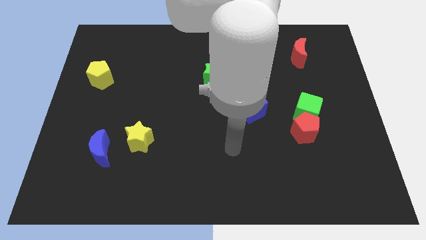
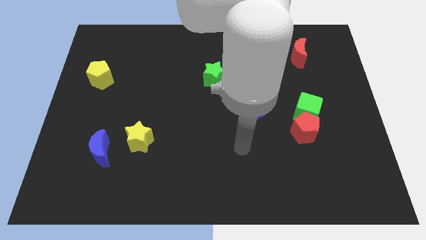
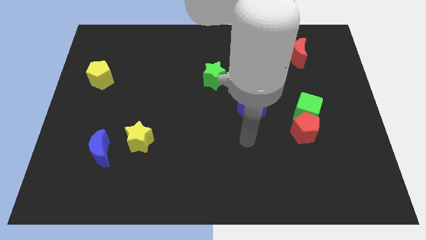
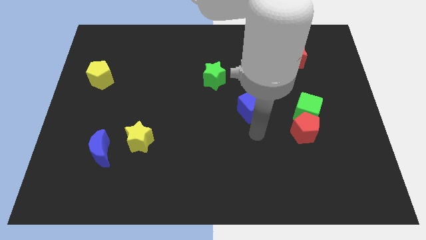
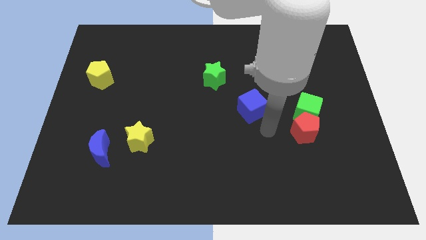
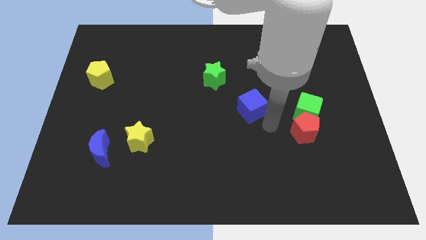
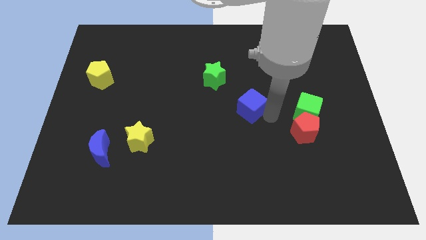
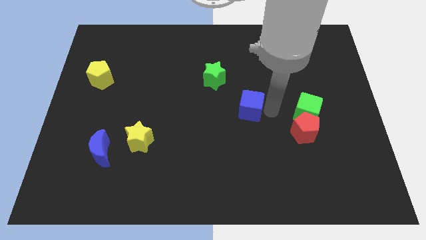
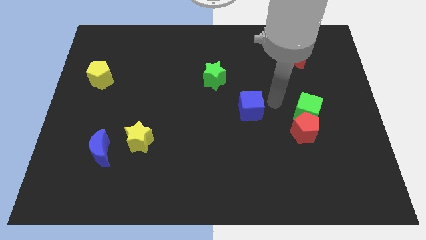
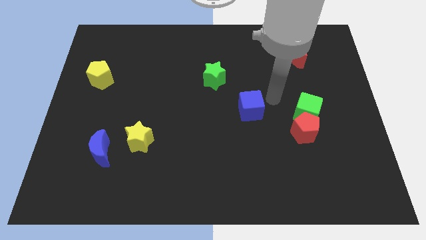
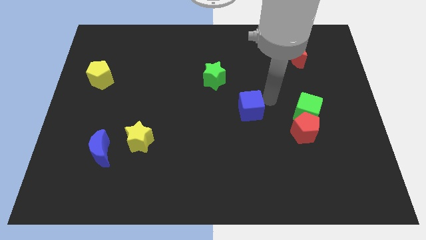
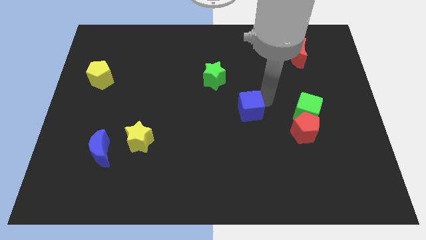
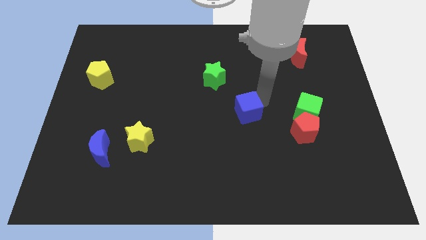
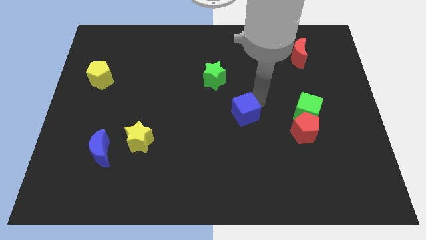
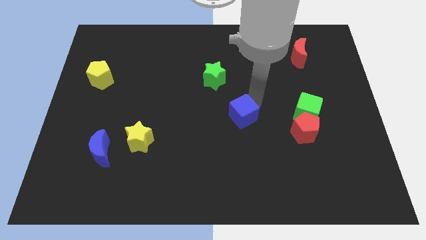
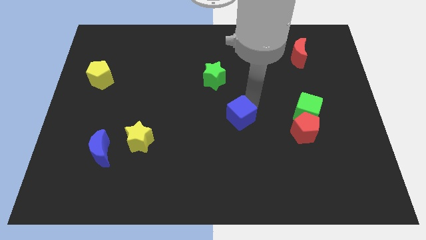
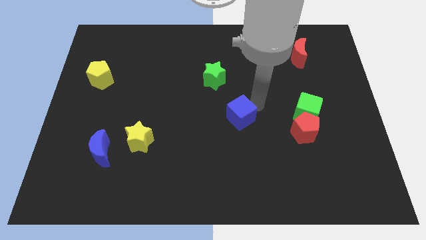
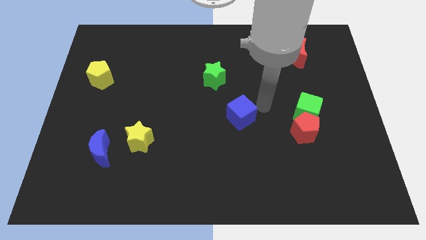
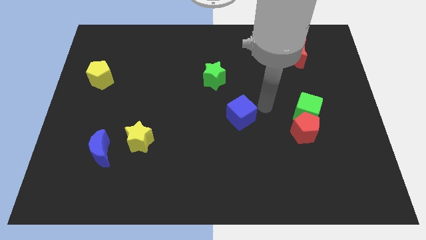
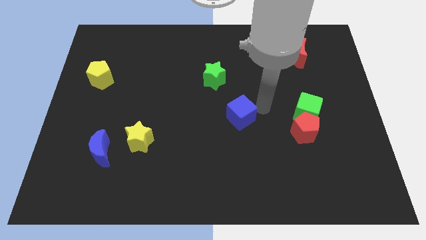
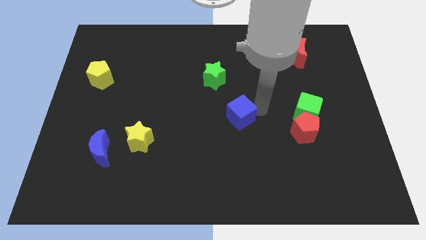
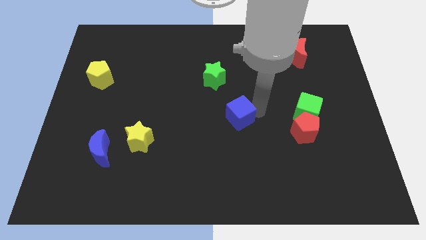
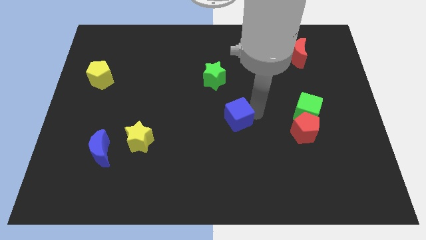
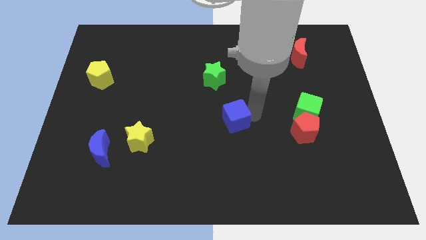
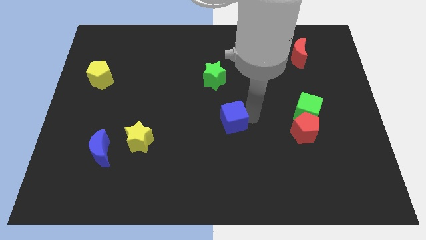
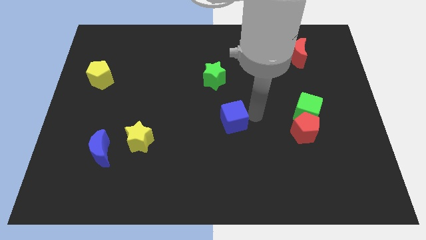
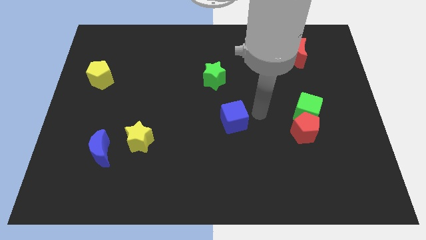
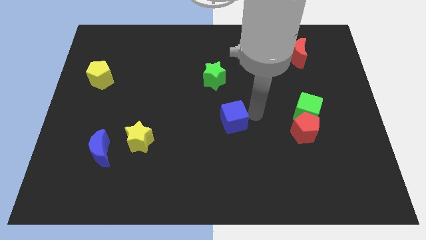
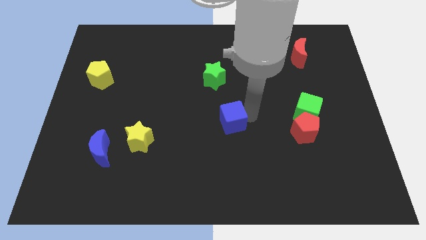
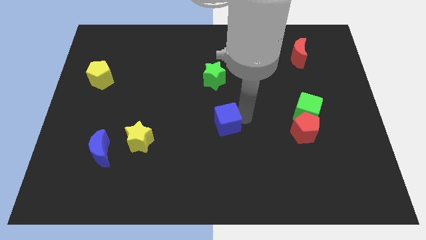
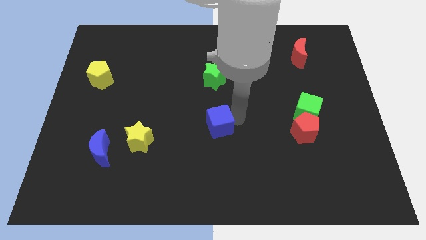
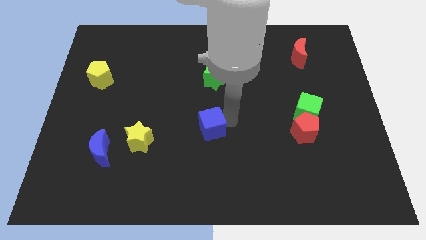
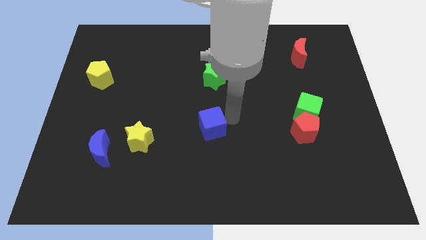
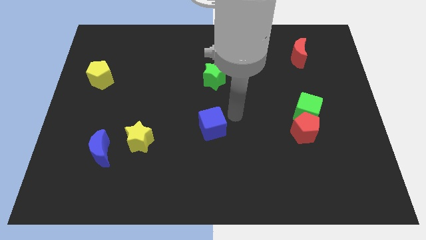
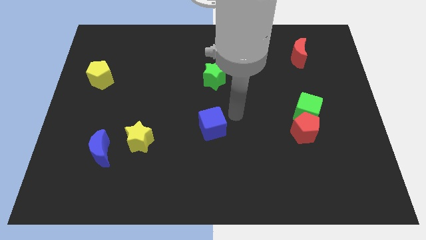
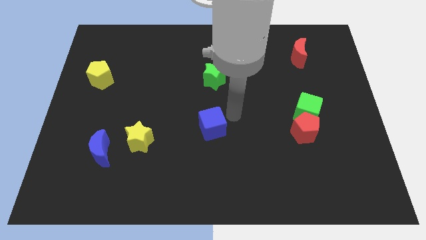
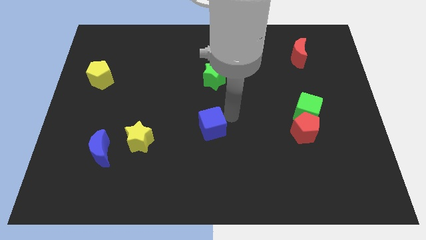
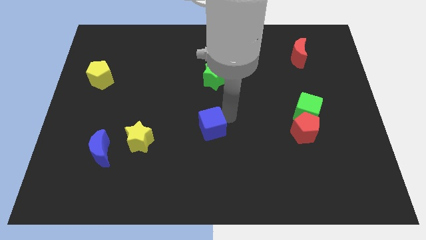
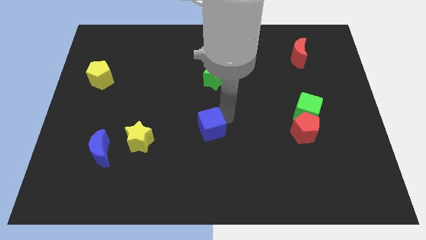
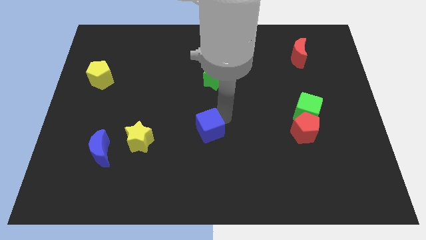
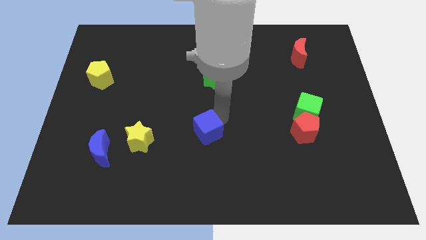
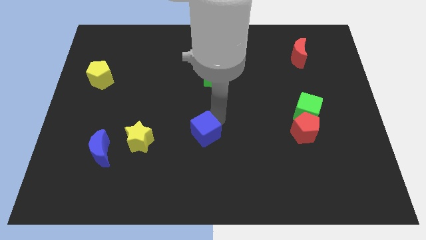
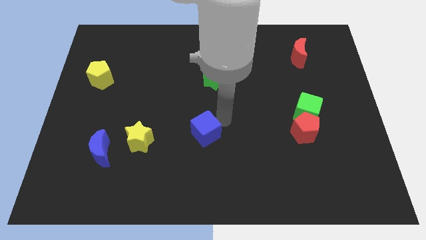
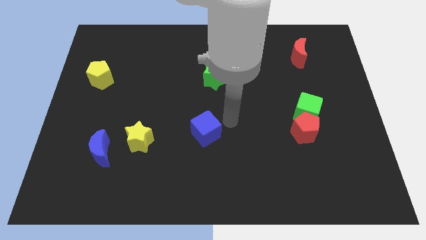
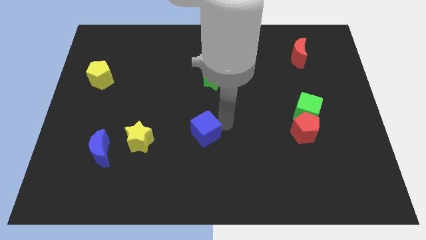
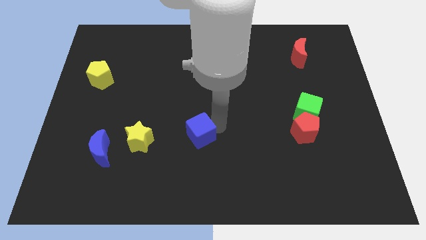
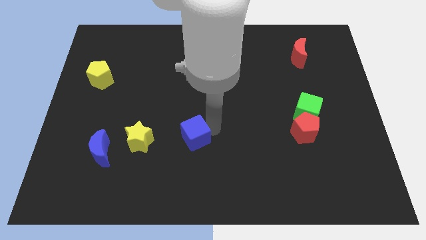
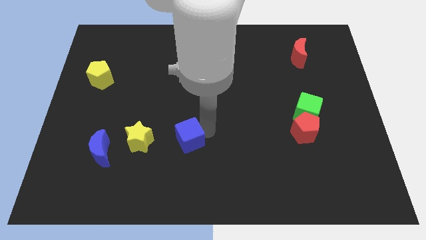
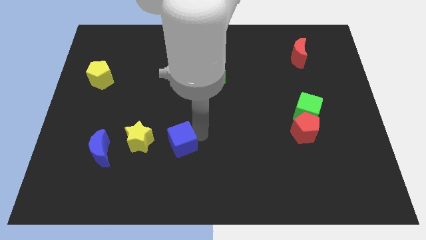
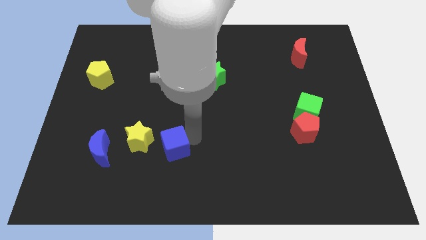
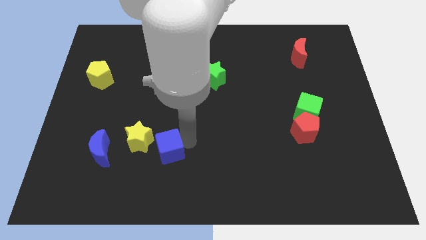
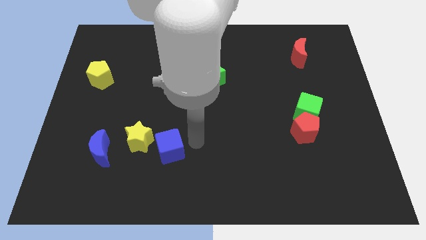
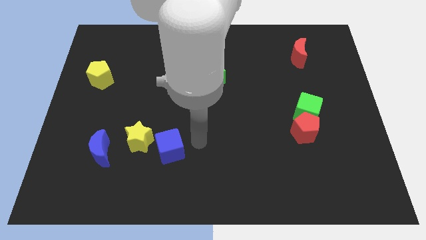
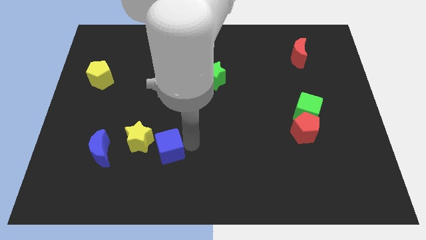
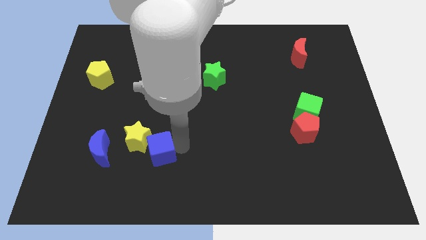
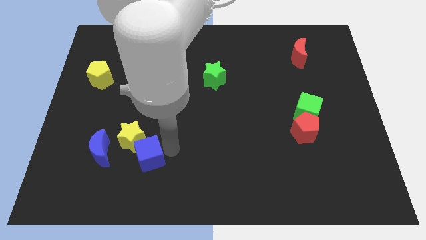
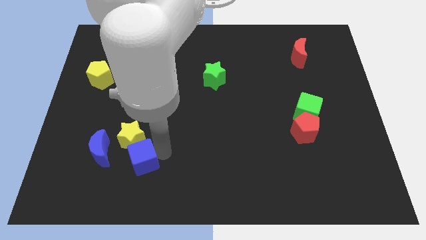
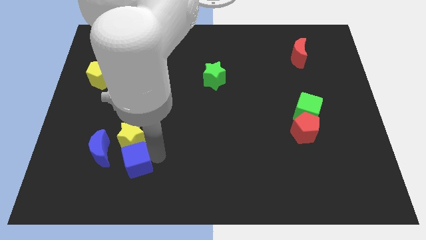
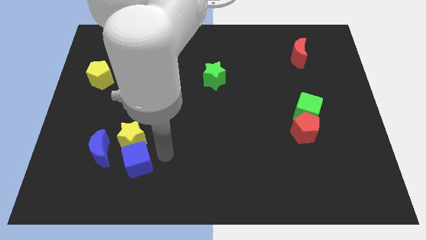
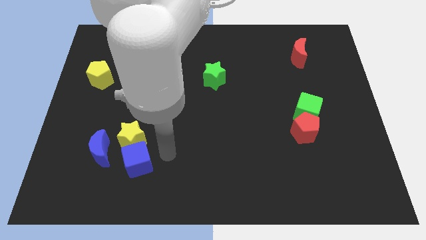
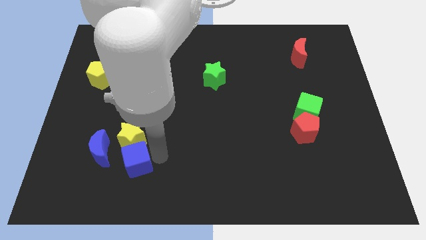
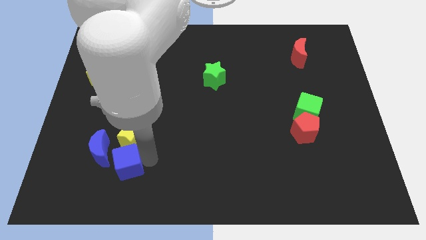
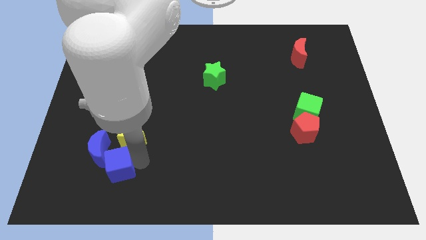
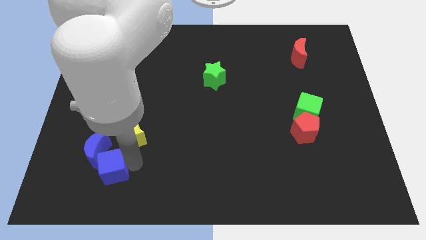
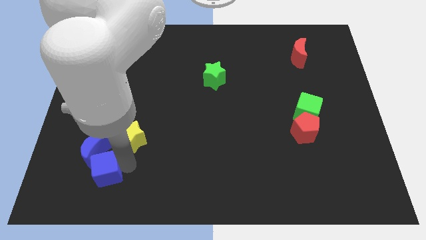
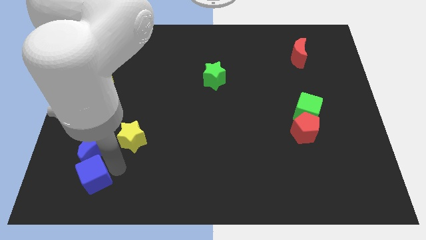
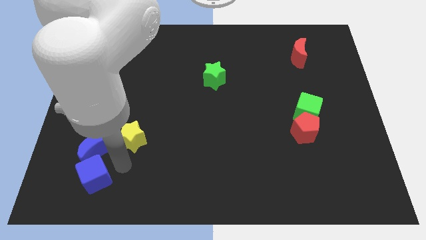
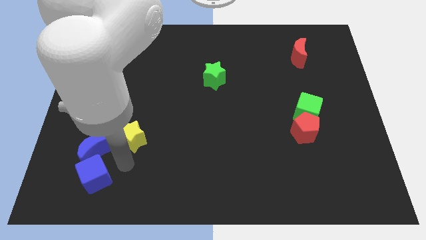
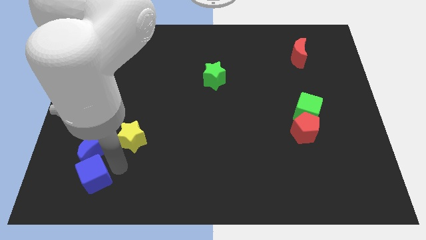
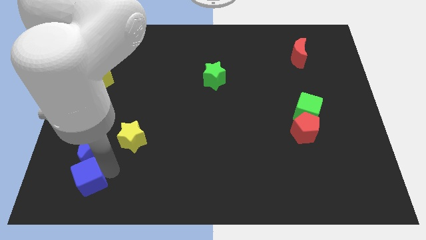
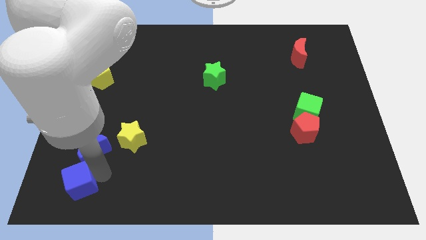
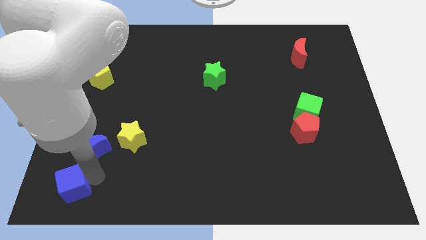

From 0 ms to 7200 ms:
push the blue cube to the bottom left corner
